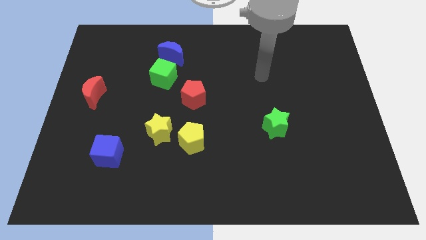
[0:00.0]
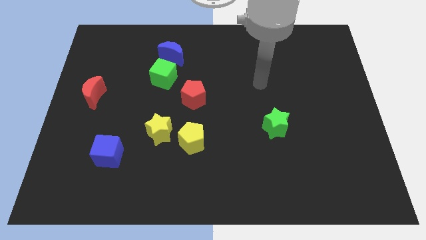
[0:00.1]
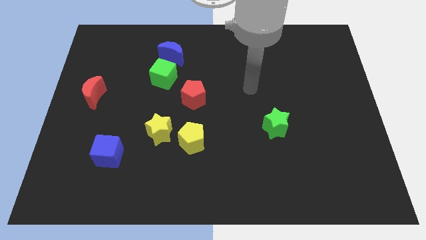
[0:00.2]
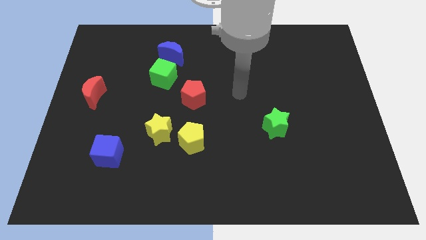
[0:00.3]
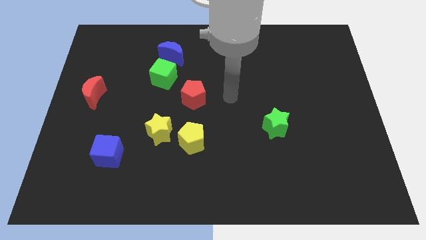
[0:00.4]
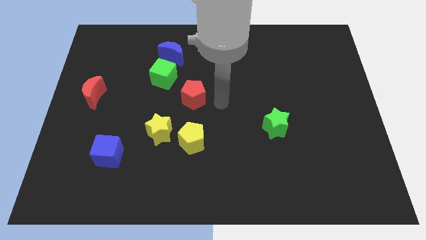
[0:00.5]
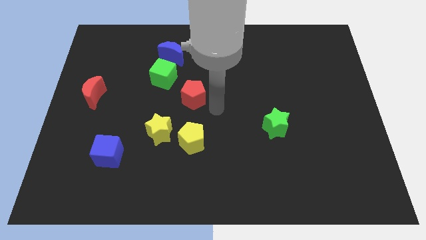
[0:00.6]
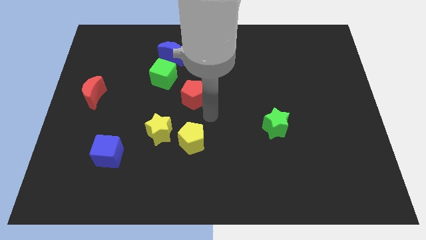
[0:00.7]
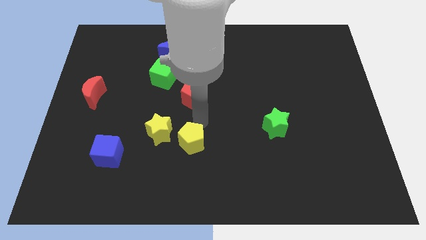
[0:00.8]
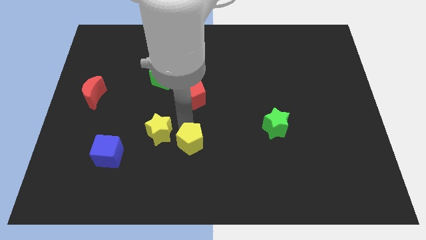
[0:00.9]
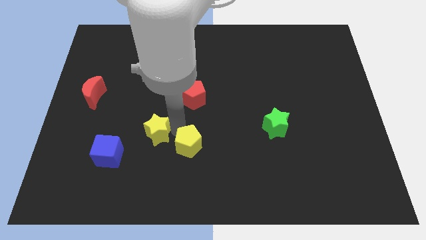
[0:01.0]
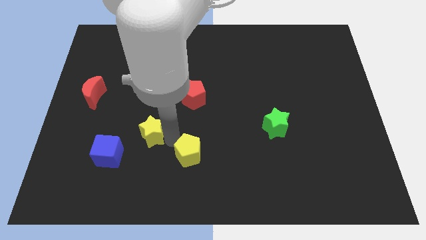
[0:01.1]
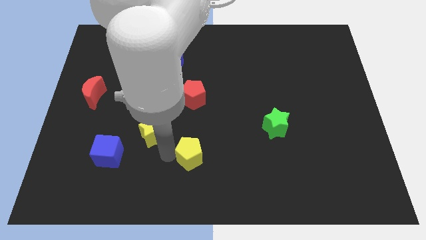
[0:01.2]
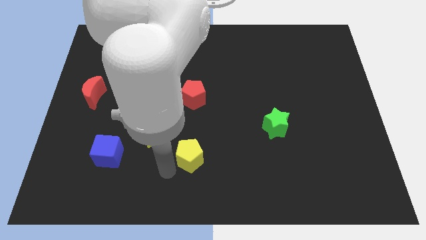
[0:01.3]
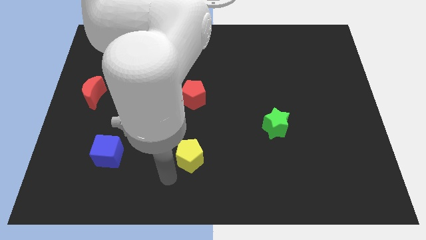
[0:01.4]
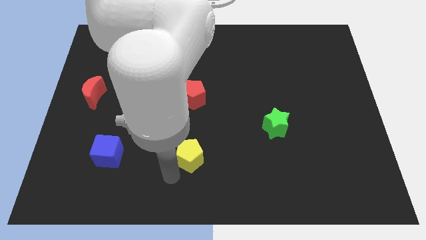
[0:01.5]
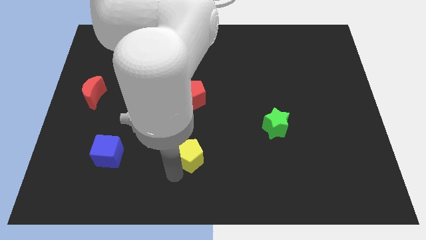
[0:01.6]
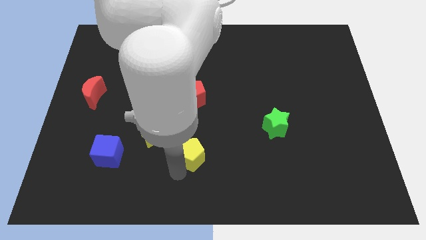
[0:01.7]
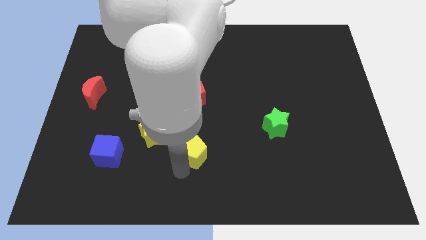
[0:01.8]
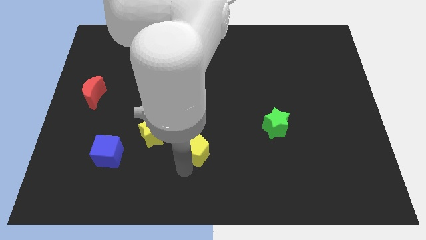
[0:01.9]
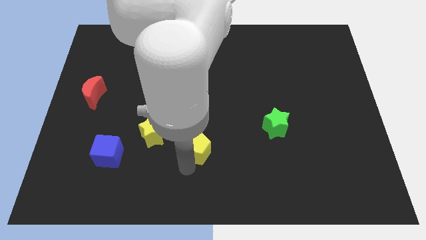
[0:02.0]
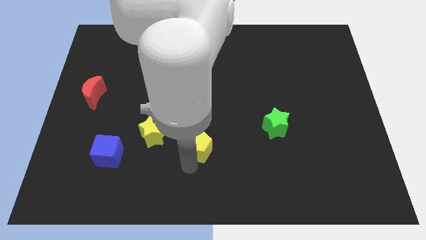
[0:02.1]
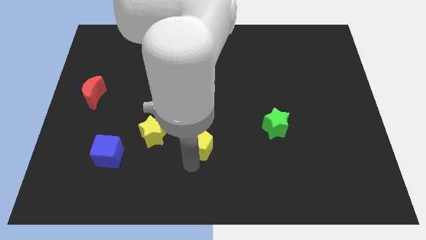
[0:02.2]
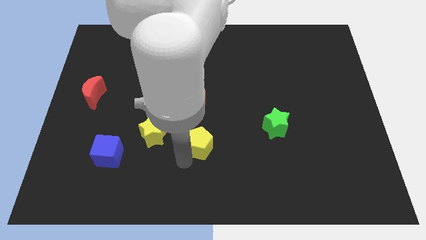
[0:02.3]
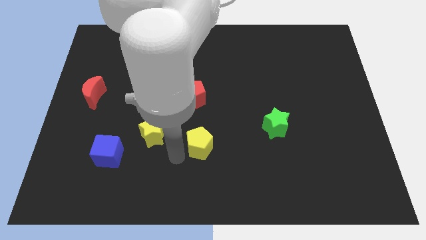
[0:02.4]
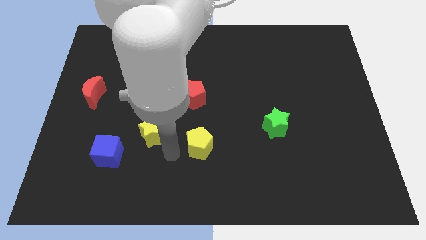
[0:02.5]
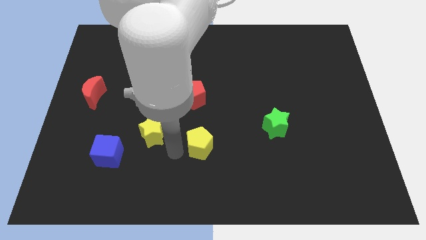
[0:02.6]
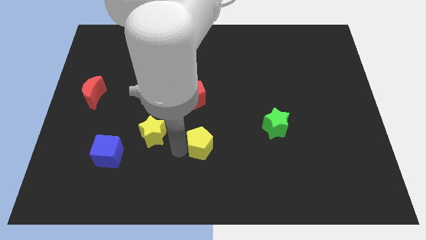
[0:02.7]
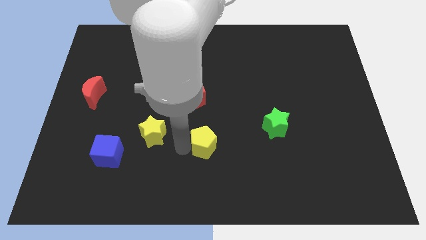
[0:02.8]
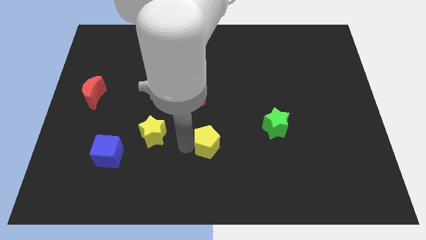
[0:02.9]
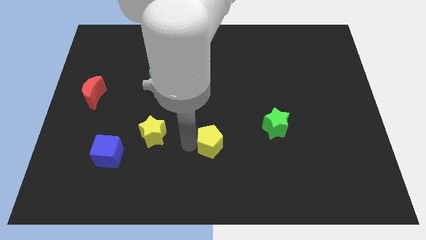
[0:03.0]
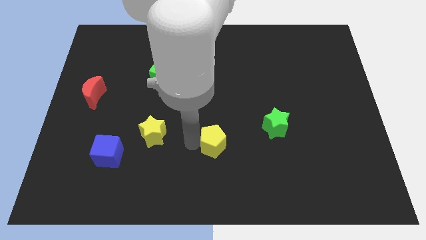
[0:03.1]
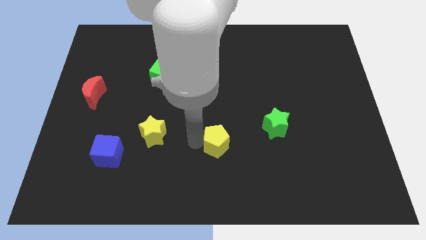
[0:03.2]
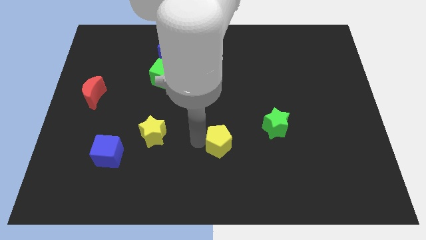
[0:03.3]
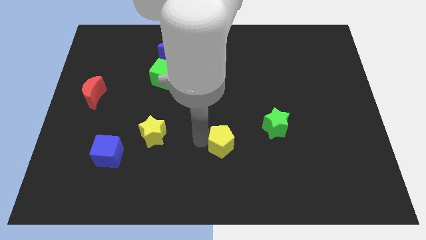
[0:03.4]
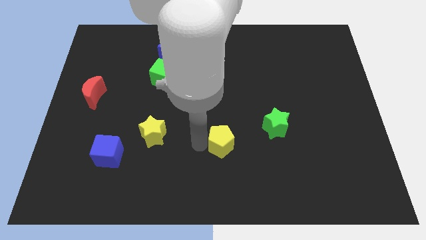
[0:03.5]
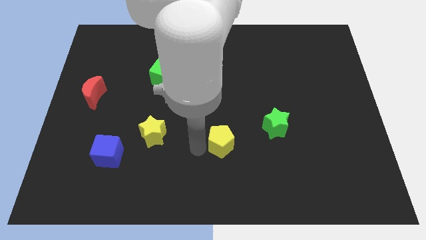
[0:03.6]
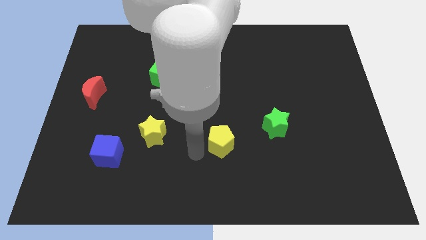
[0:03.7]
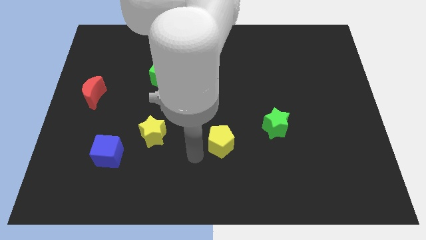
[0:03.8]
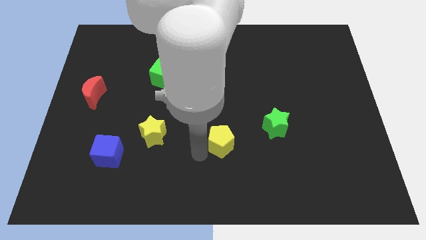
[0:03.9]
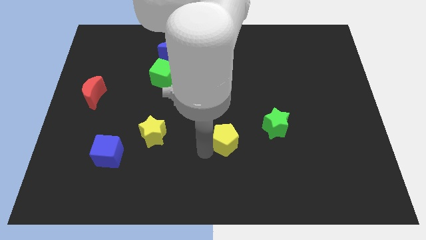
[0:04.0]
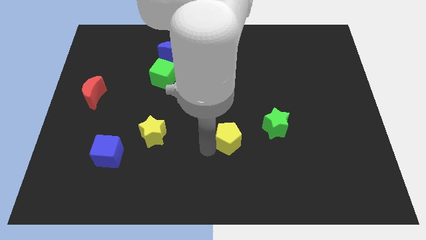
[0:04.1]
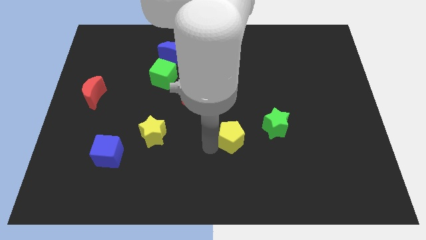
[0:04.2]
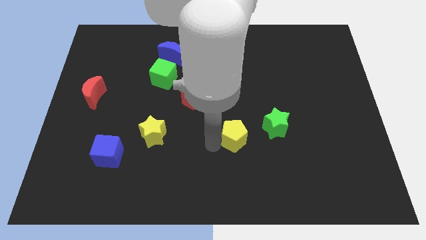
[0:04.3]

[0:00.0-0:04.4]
move the yellow pentagon diagonally down and to the left of the green star

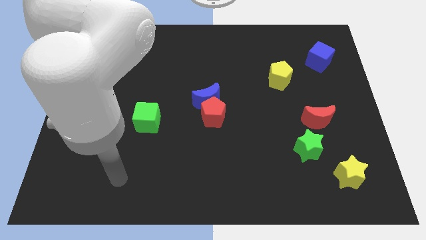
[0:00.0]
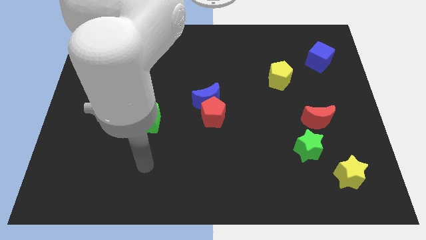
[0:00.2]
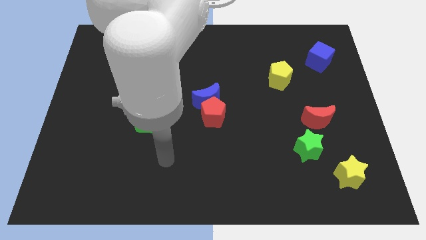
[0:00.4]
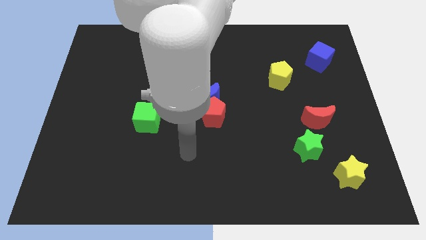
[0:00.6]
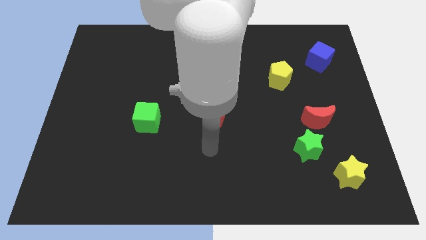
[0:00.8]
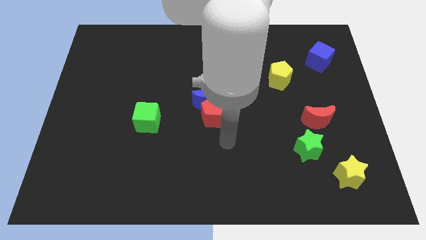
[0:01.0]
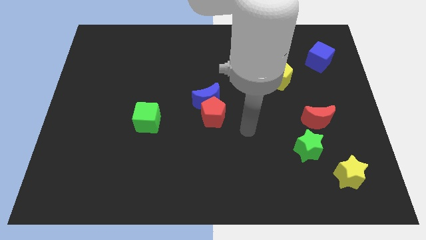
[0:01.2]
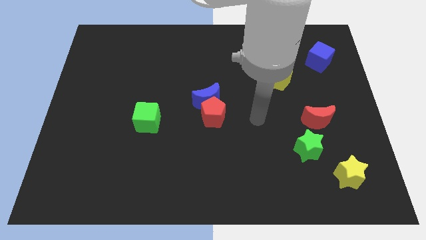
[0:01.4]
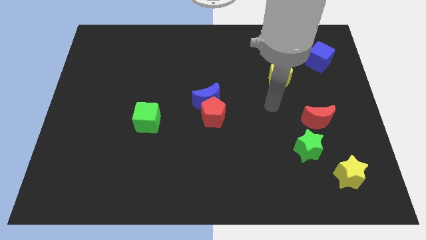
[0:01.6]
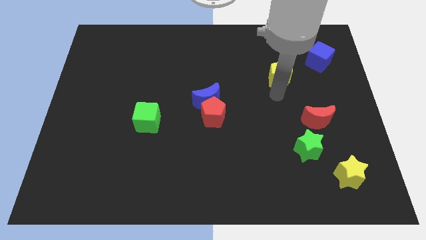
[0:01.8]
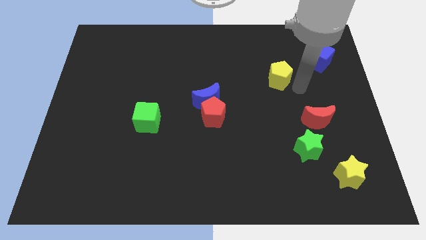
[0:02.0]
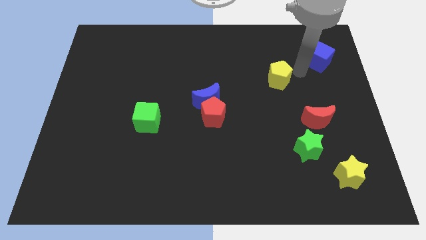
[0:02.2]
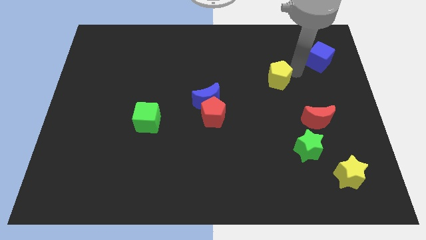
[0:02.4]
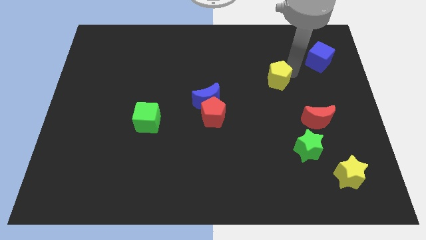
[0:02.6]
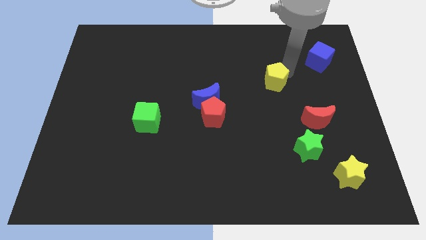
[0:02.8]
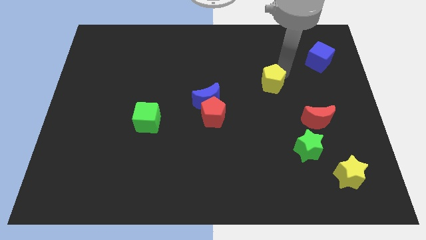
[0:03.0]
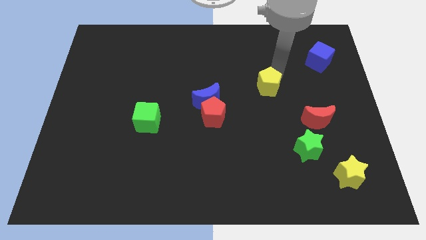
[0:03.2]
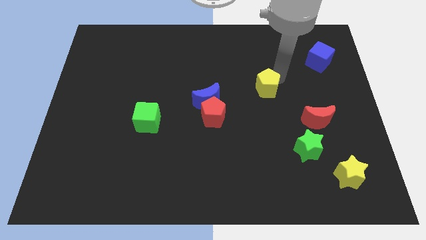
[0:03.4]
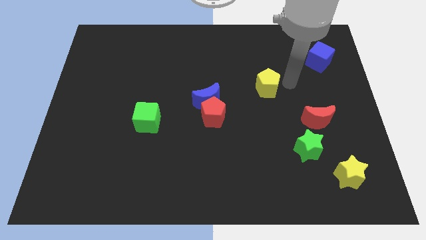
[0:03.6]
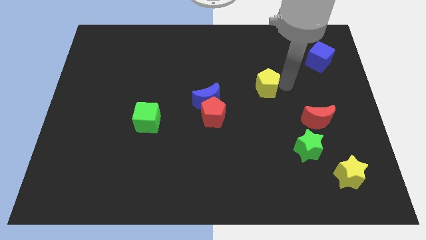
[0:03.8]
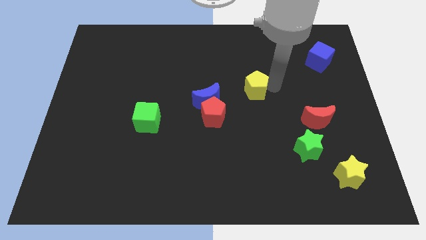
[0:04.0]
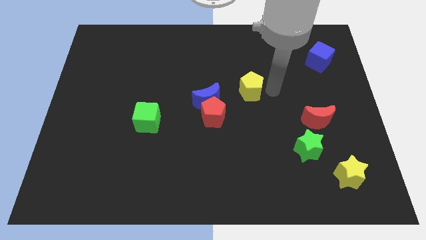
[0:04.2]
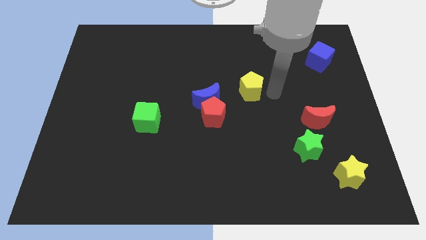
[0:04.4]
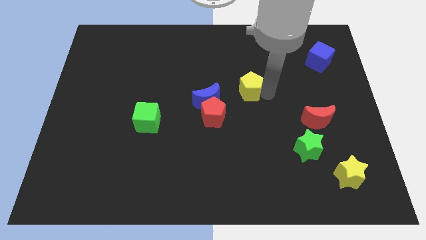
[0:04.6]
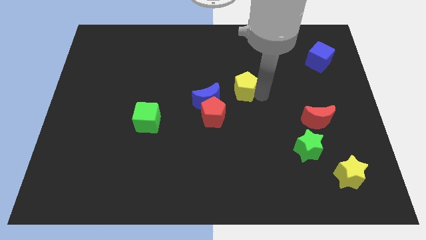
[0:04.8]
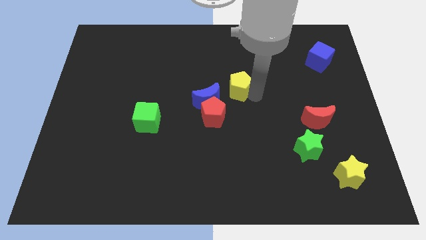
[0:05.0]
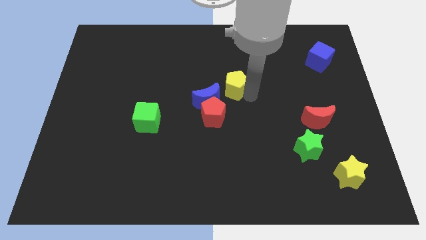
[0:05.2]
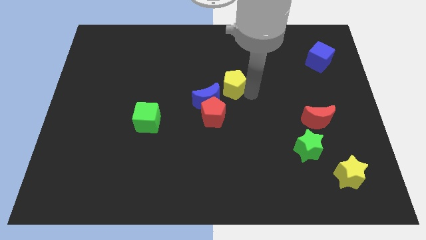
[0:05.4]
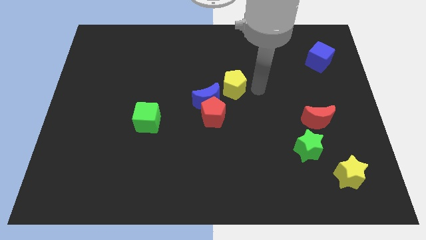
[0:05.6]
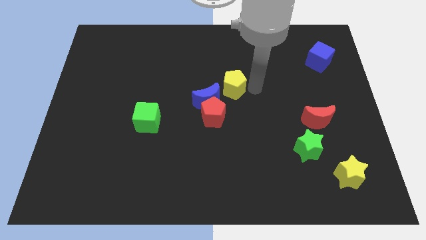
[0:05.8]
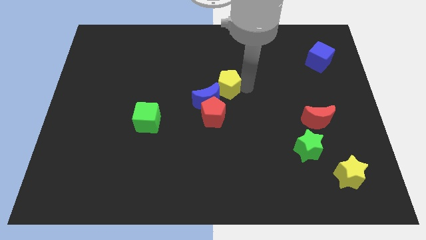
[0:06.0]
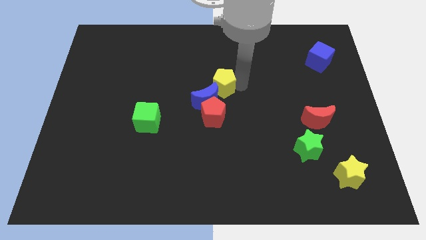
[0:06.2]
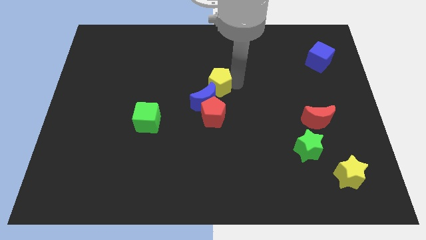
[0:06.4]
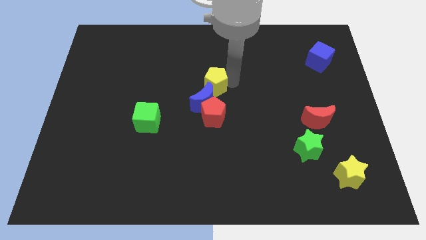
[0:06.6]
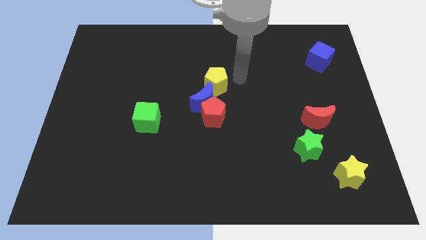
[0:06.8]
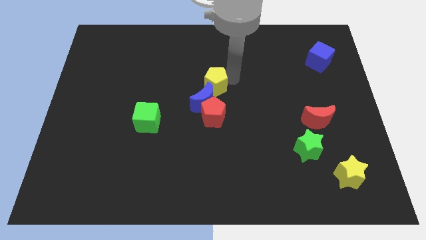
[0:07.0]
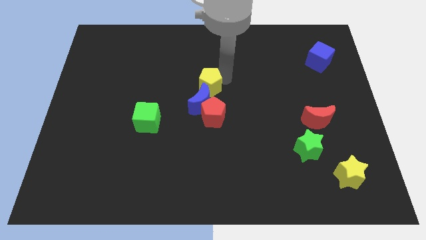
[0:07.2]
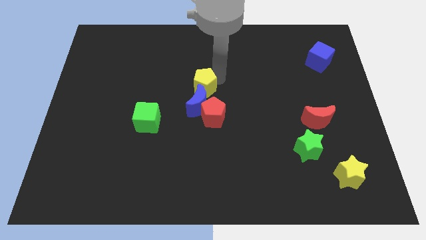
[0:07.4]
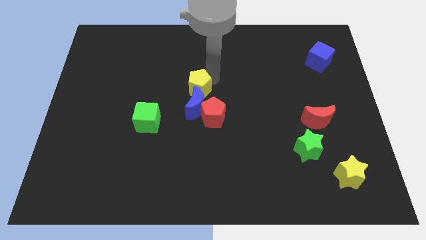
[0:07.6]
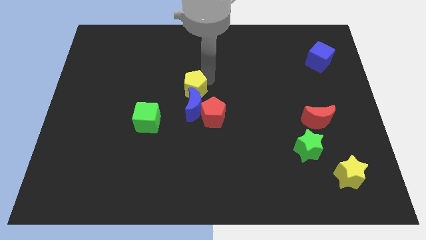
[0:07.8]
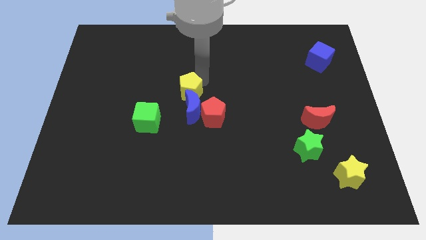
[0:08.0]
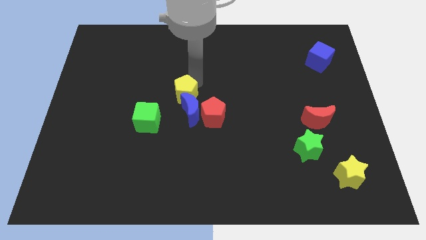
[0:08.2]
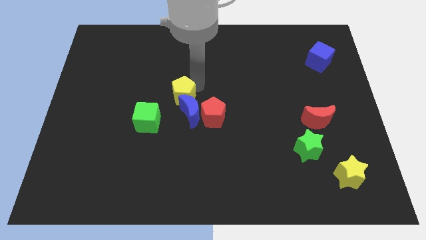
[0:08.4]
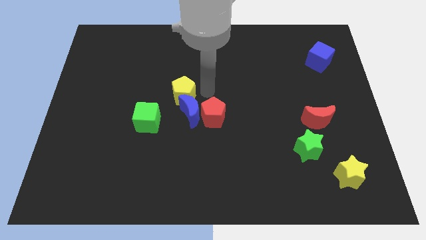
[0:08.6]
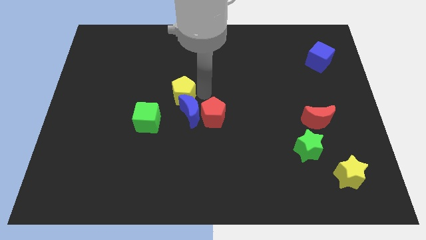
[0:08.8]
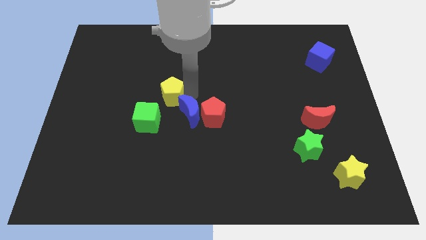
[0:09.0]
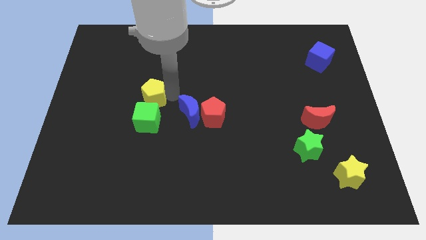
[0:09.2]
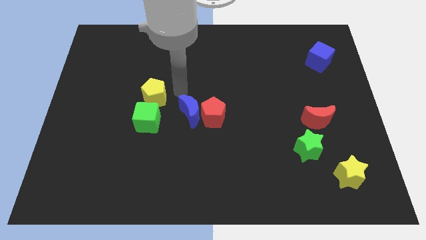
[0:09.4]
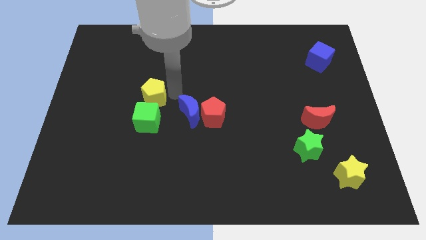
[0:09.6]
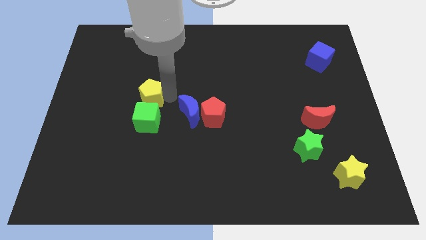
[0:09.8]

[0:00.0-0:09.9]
slide the yellow pentagon to the top left side of the green cube
